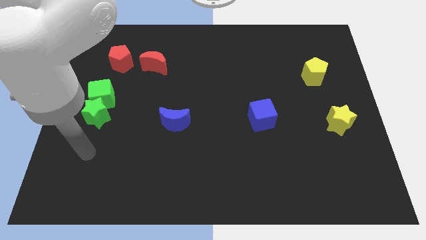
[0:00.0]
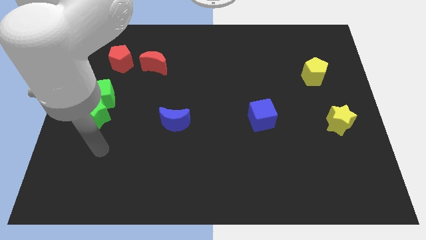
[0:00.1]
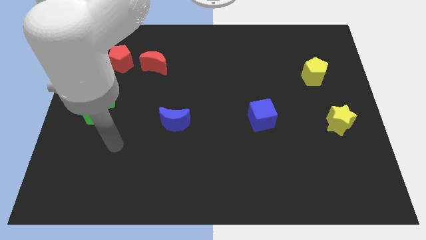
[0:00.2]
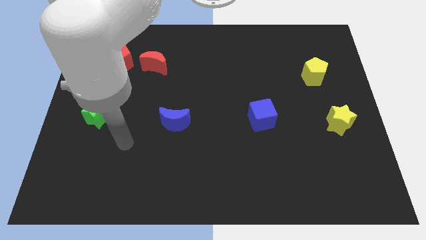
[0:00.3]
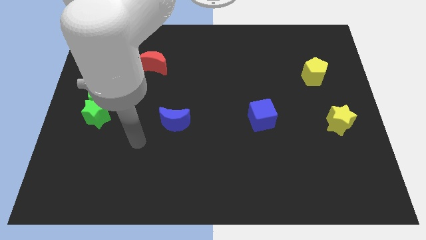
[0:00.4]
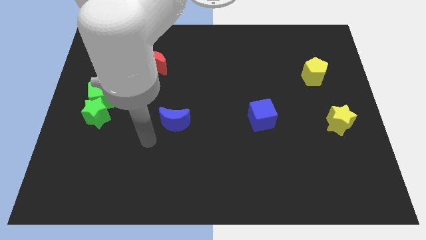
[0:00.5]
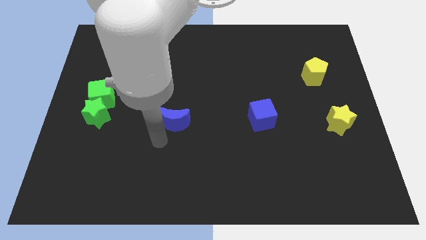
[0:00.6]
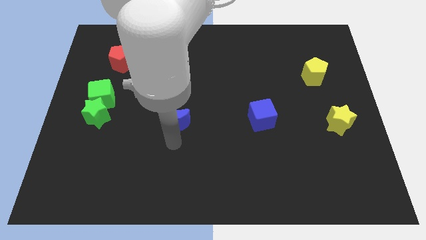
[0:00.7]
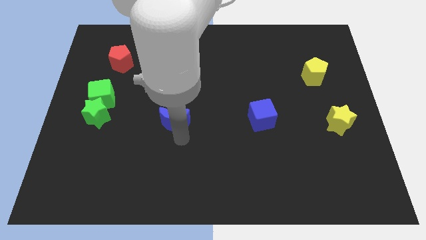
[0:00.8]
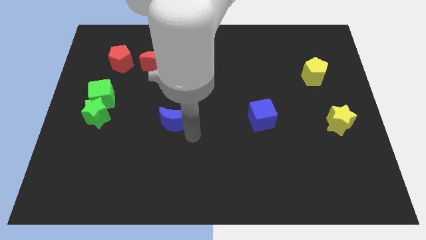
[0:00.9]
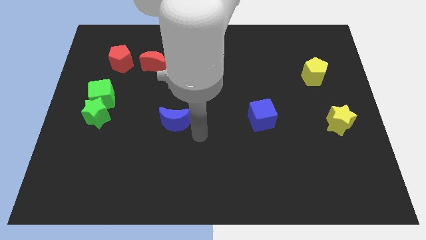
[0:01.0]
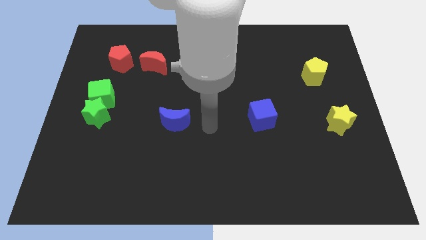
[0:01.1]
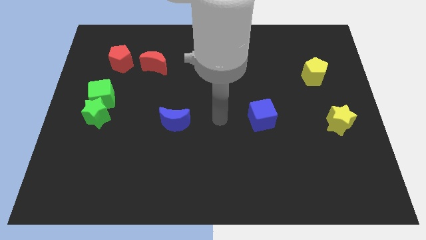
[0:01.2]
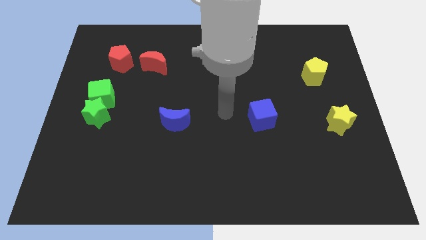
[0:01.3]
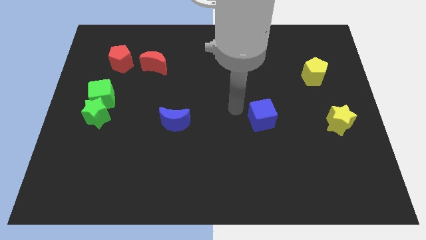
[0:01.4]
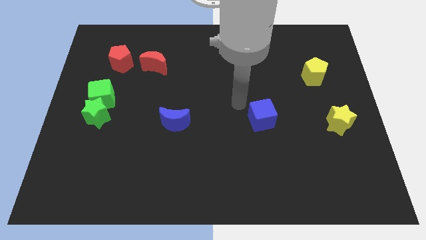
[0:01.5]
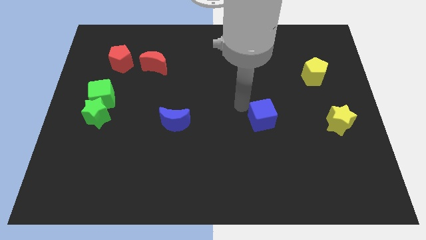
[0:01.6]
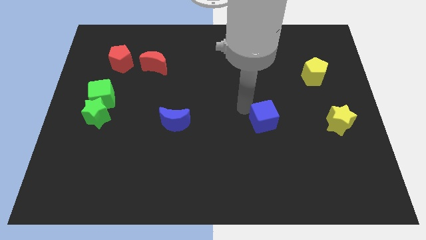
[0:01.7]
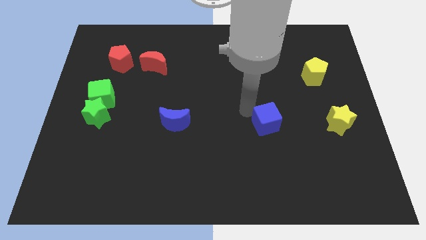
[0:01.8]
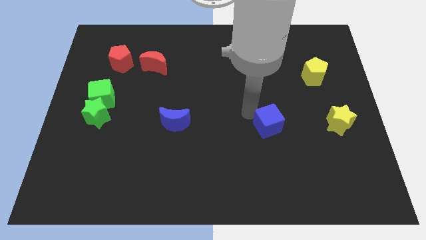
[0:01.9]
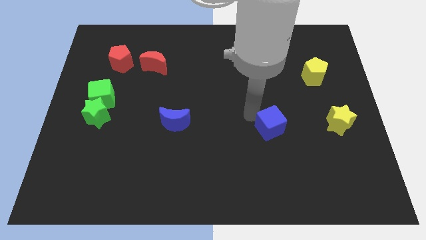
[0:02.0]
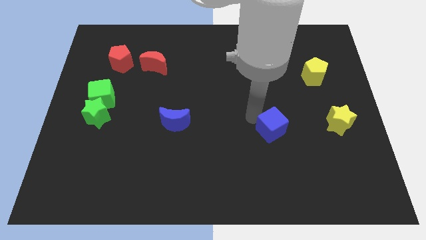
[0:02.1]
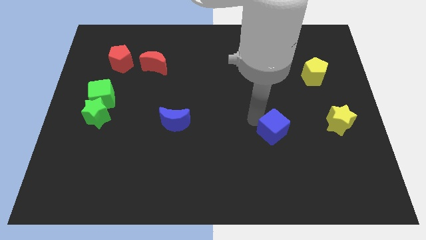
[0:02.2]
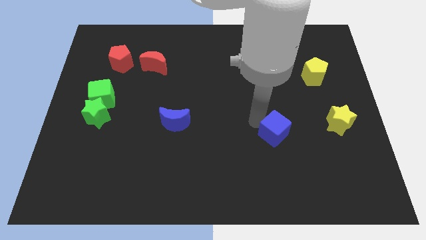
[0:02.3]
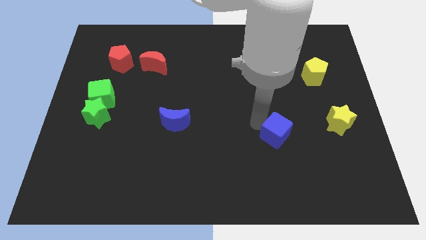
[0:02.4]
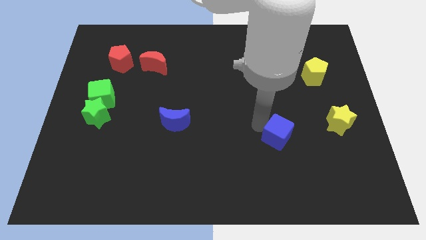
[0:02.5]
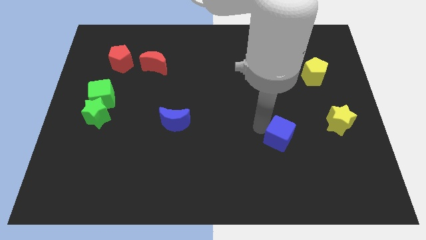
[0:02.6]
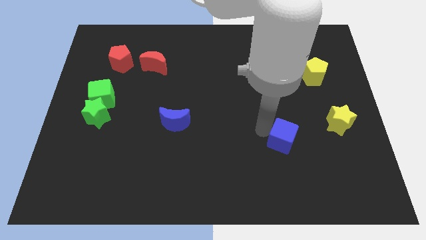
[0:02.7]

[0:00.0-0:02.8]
slightly slide the blue cube downwards and to the right diagonally

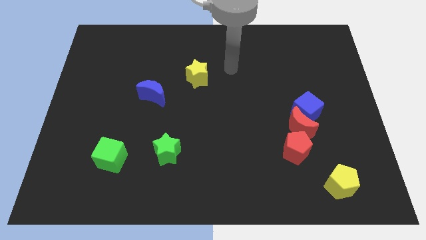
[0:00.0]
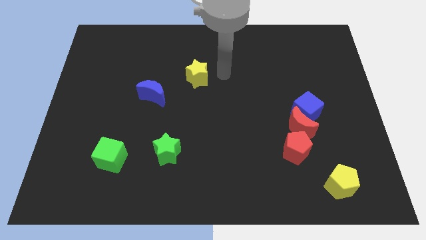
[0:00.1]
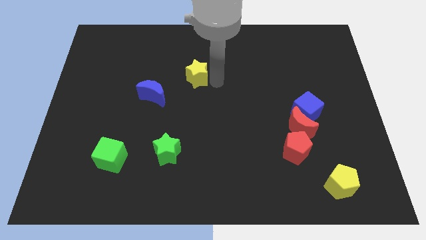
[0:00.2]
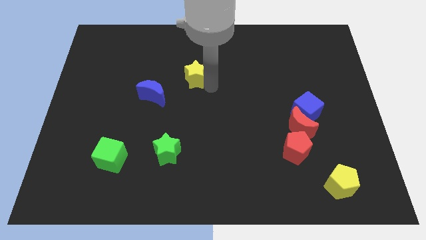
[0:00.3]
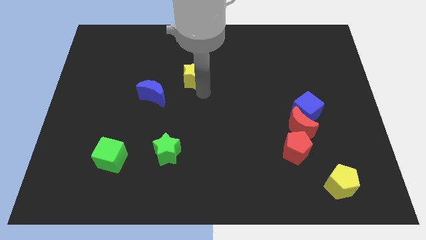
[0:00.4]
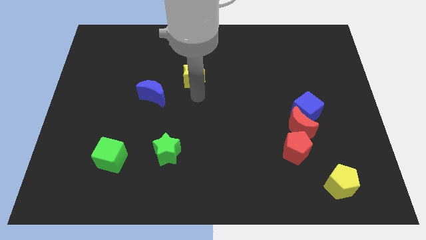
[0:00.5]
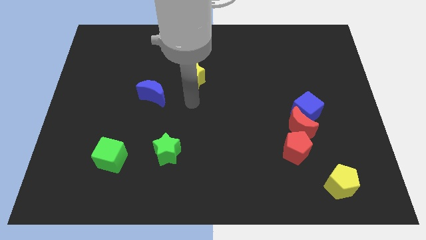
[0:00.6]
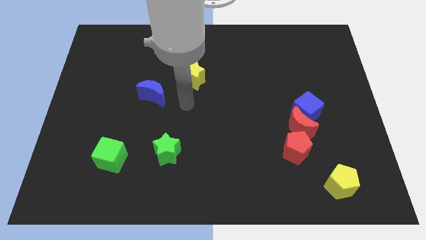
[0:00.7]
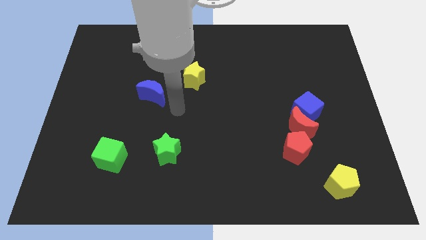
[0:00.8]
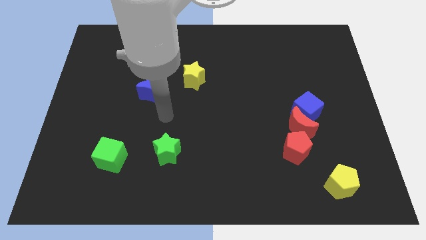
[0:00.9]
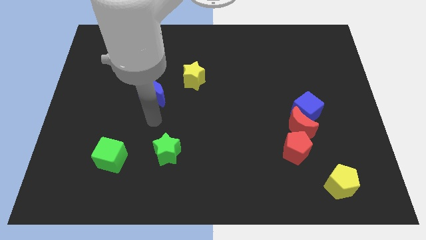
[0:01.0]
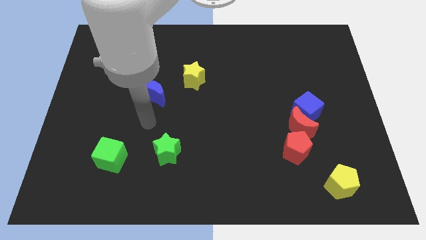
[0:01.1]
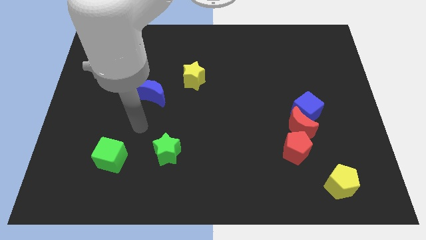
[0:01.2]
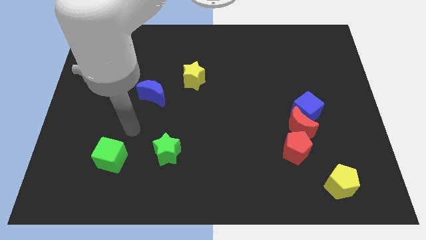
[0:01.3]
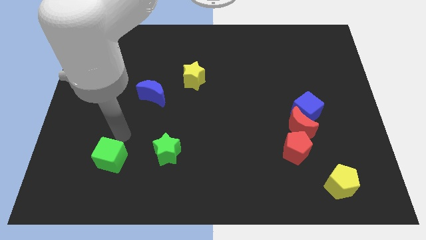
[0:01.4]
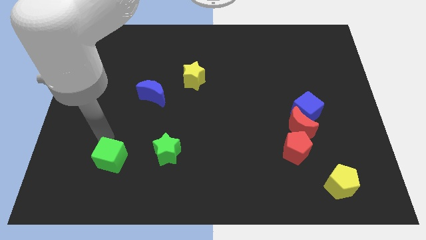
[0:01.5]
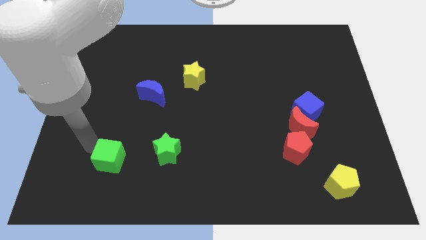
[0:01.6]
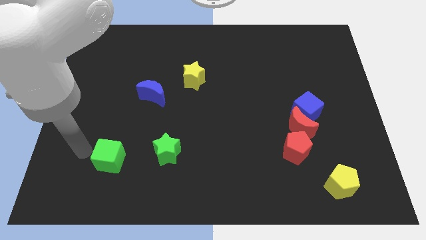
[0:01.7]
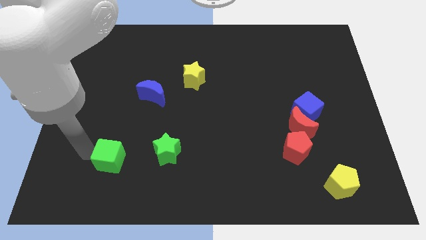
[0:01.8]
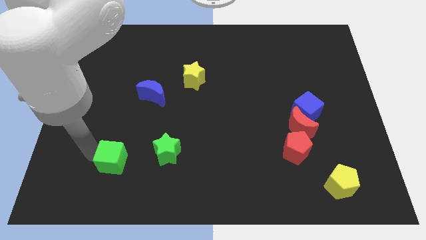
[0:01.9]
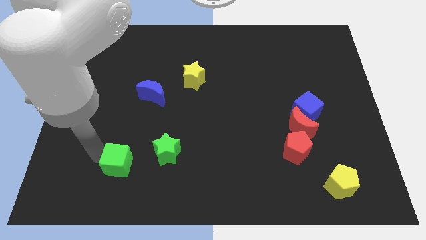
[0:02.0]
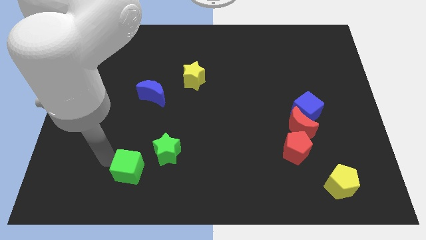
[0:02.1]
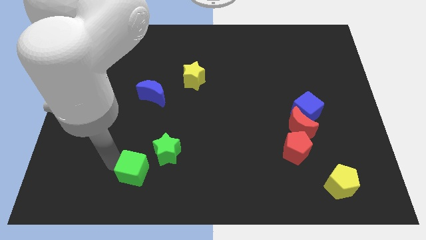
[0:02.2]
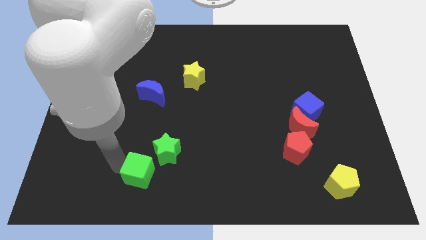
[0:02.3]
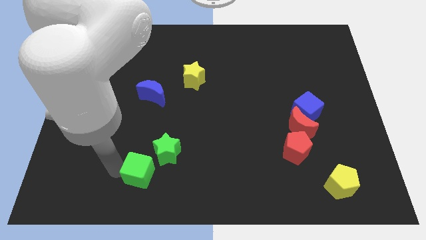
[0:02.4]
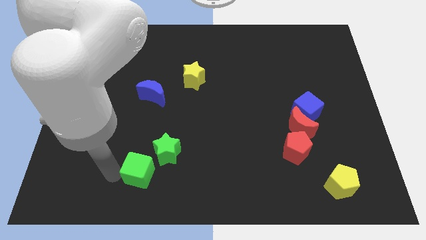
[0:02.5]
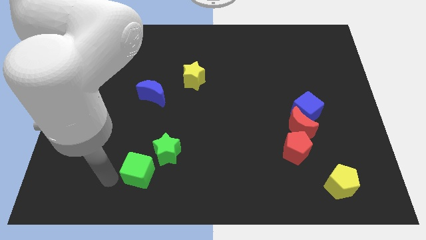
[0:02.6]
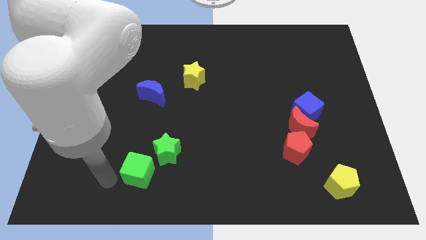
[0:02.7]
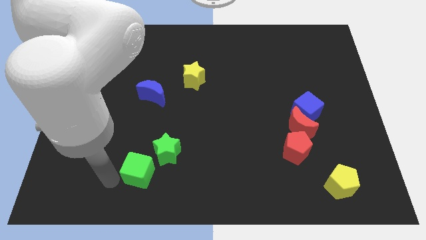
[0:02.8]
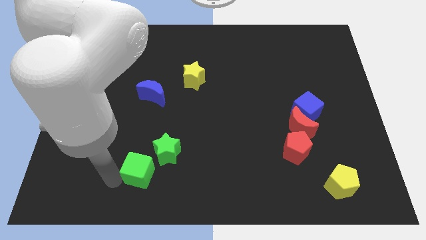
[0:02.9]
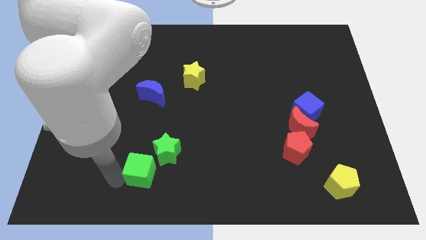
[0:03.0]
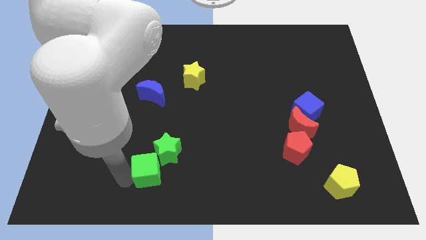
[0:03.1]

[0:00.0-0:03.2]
move the green cube slightly right

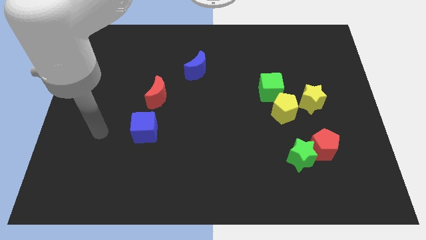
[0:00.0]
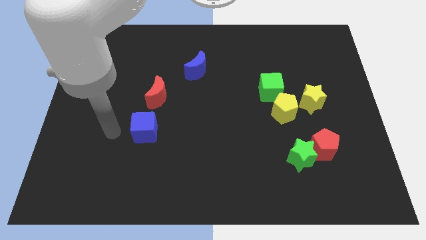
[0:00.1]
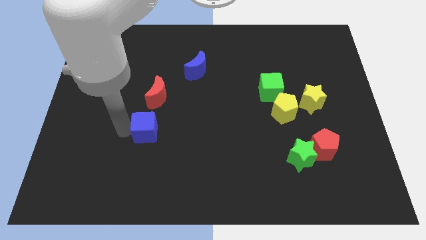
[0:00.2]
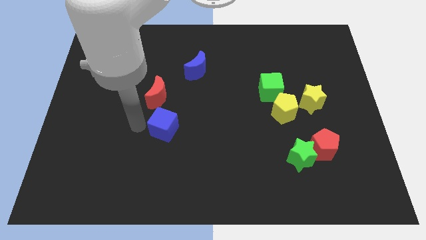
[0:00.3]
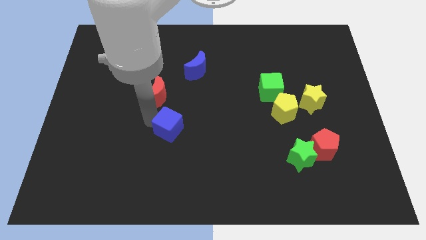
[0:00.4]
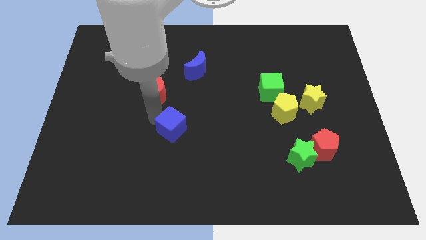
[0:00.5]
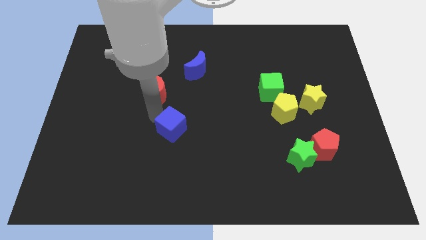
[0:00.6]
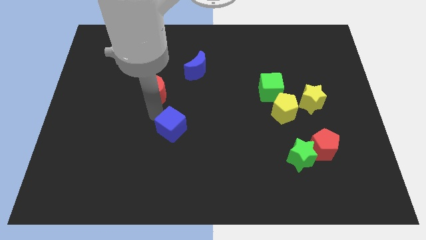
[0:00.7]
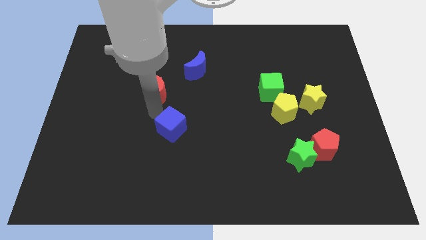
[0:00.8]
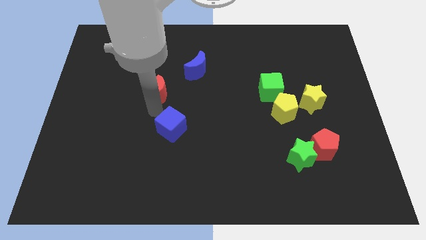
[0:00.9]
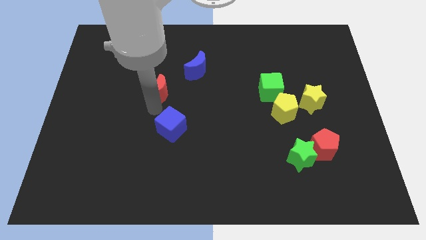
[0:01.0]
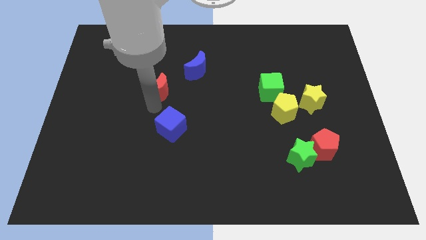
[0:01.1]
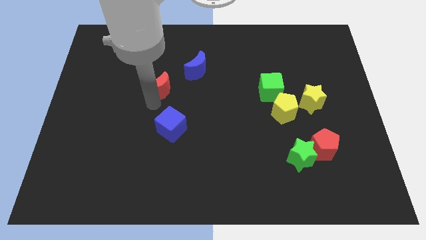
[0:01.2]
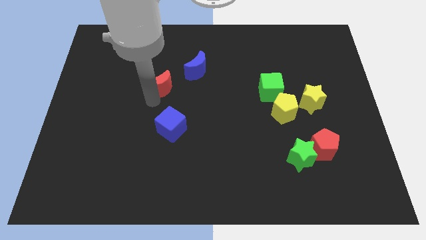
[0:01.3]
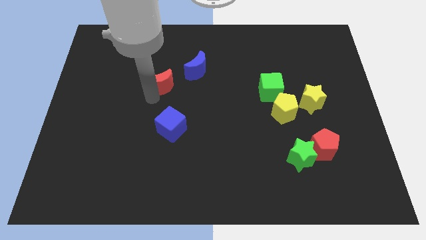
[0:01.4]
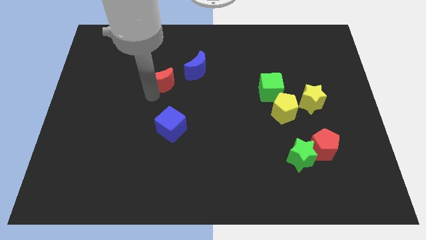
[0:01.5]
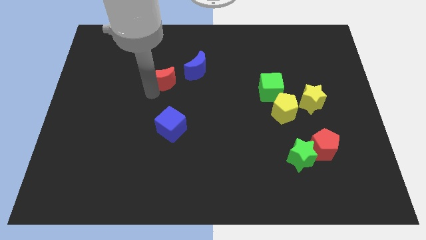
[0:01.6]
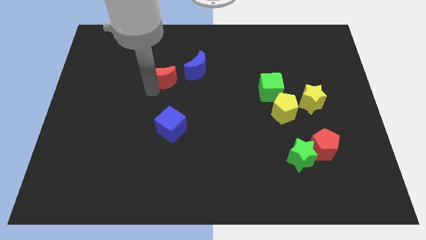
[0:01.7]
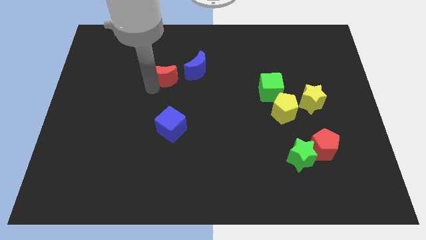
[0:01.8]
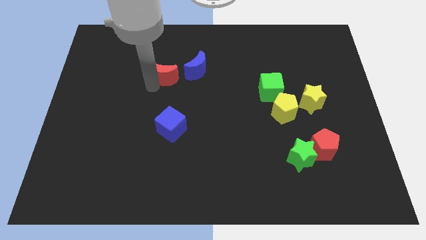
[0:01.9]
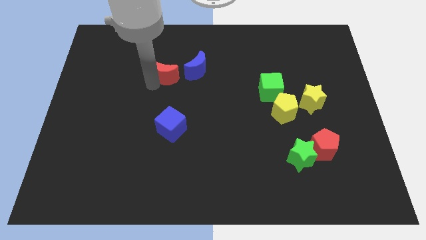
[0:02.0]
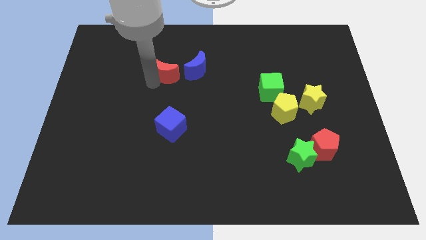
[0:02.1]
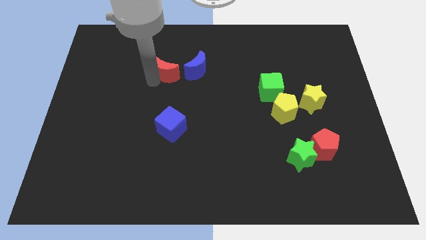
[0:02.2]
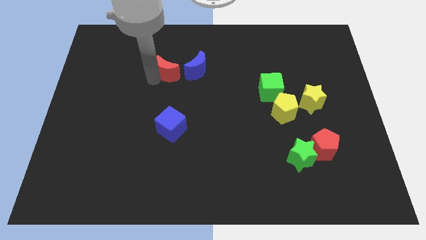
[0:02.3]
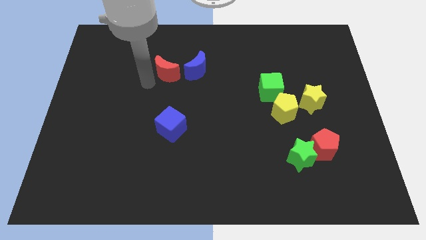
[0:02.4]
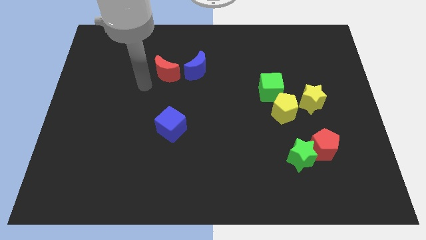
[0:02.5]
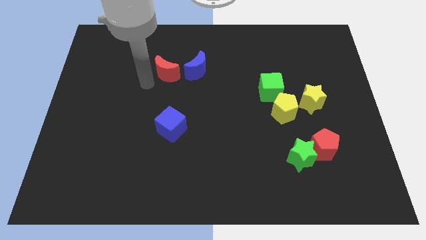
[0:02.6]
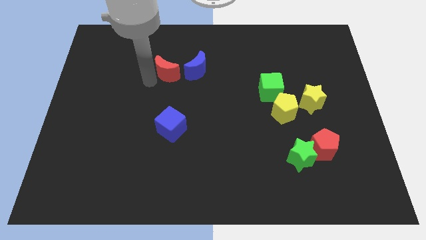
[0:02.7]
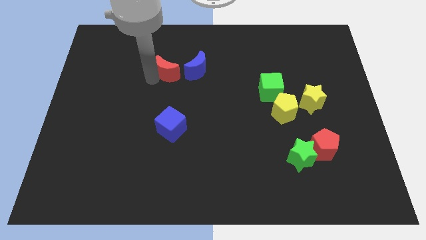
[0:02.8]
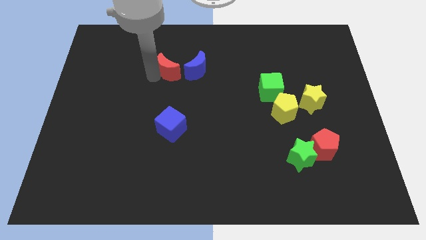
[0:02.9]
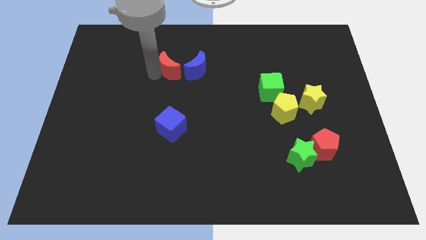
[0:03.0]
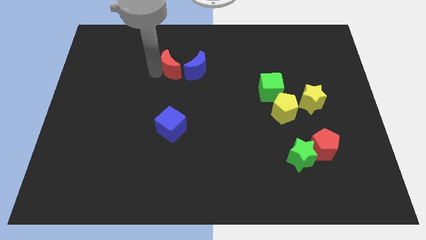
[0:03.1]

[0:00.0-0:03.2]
slightly slide the red moon diagonally up and to the right
